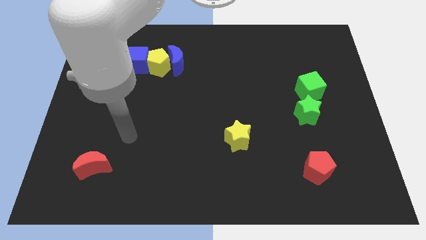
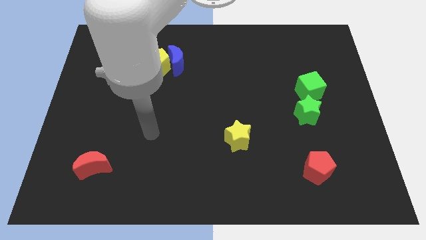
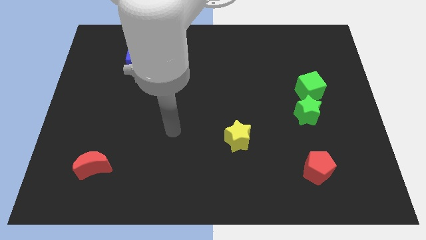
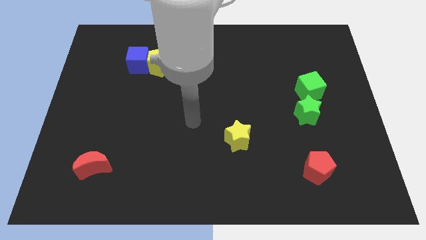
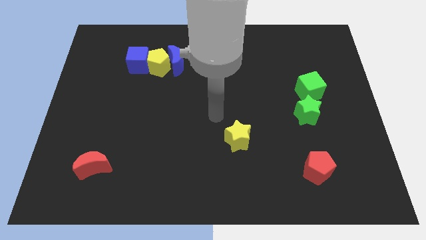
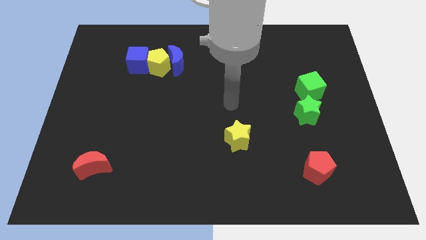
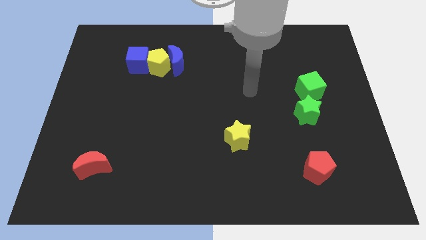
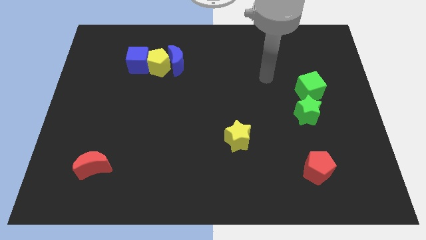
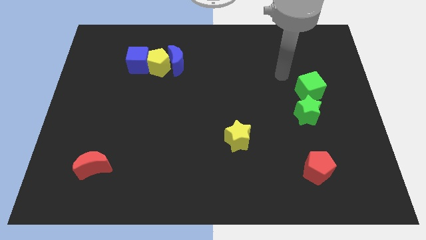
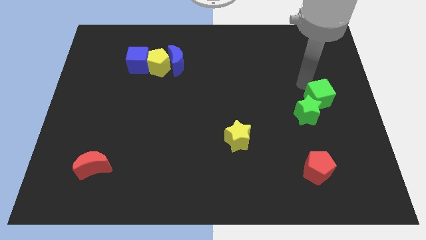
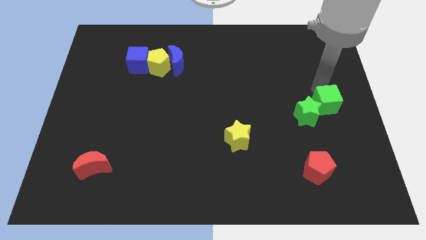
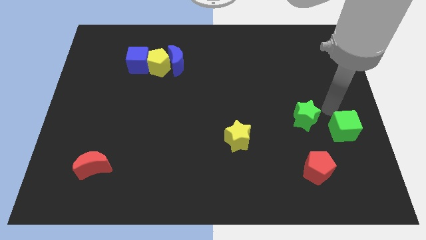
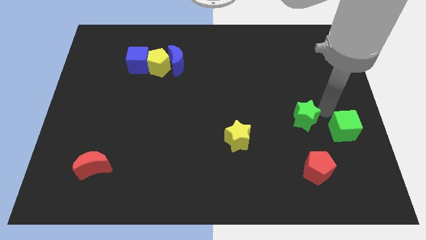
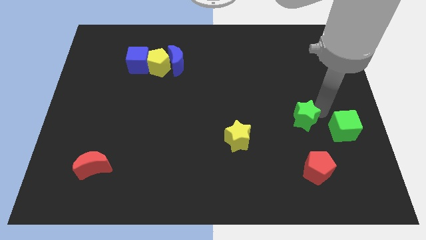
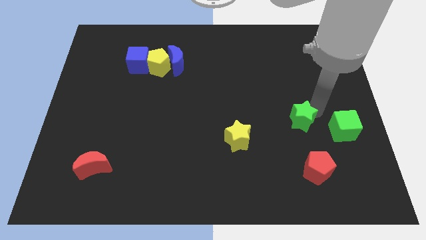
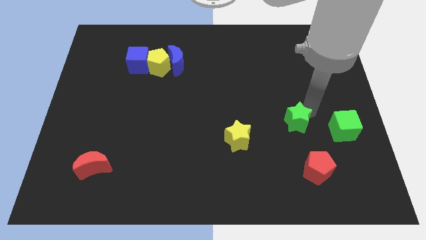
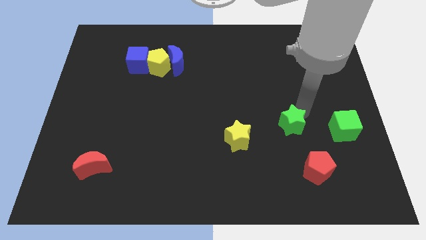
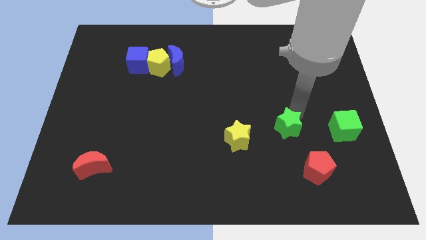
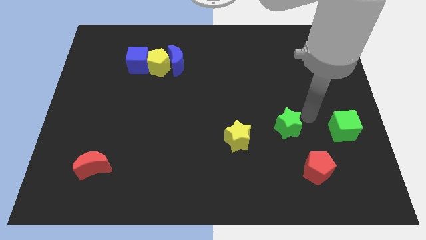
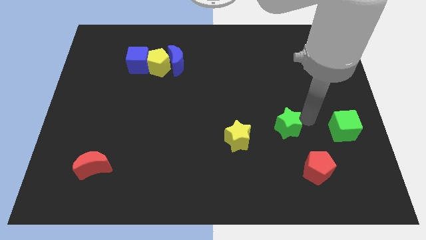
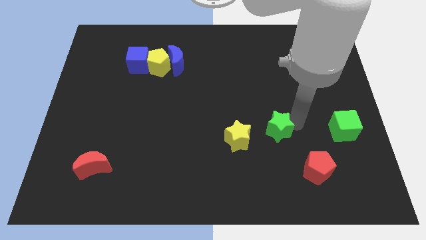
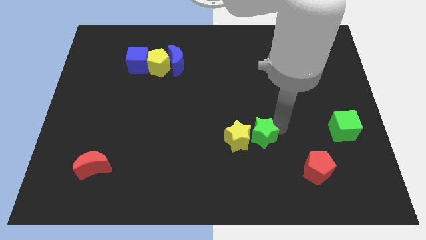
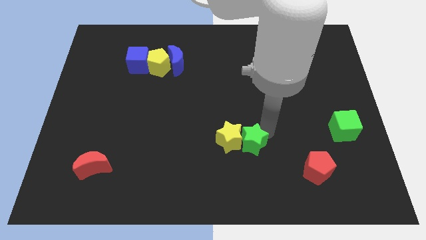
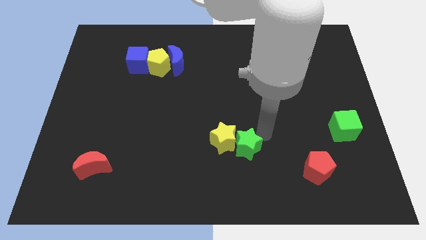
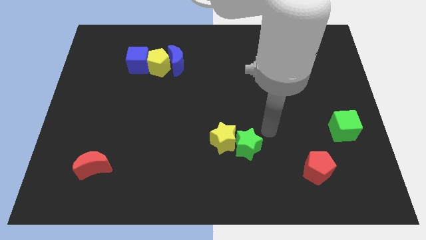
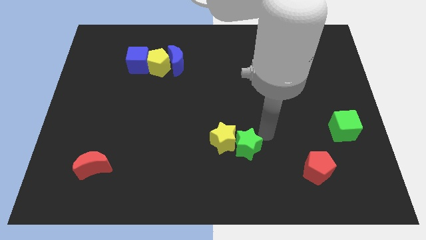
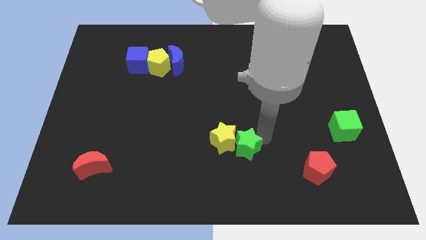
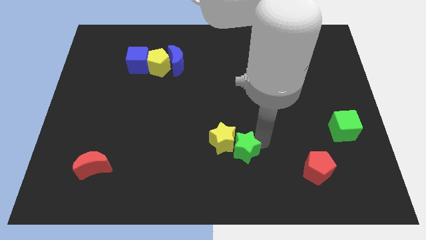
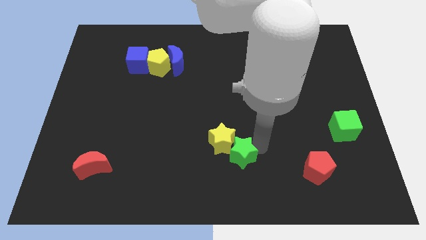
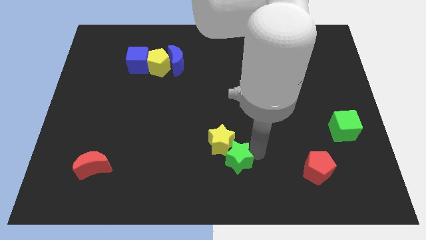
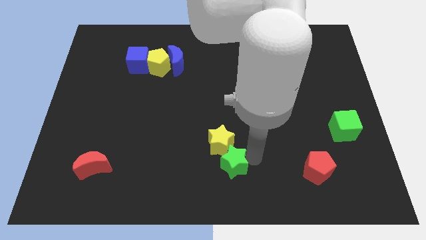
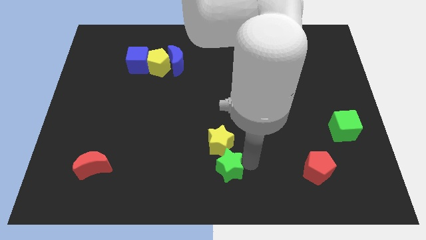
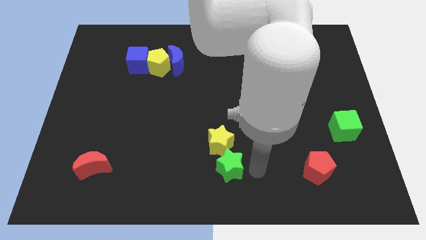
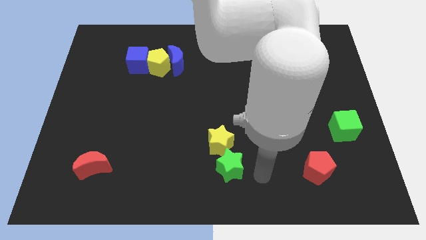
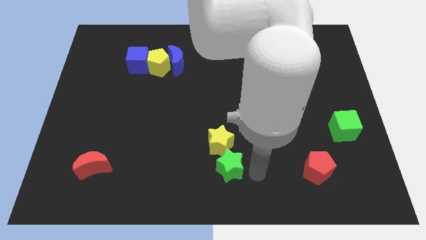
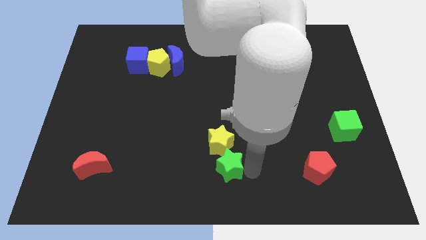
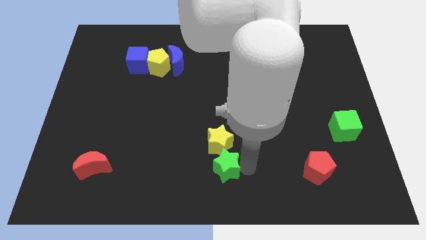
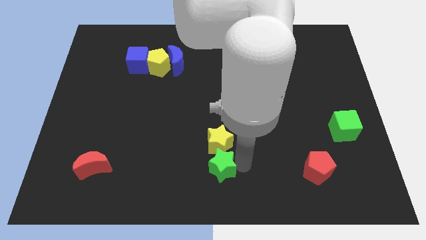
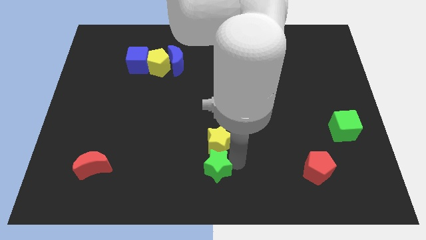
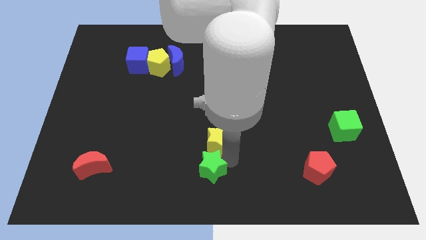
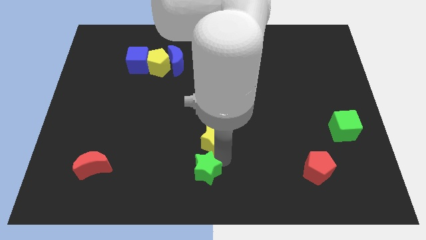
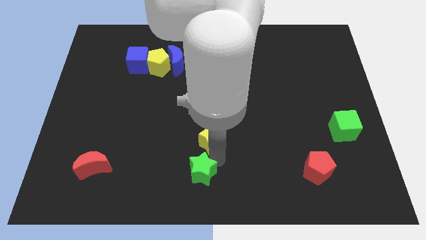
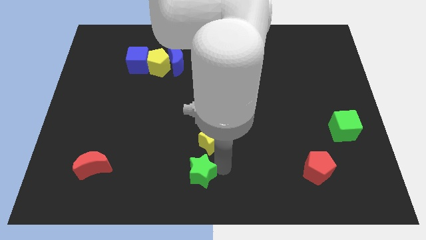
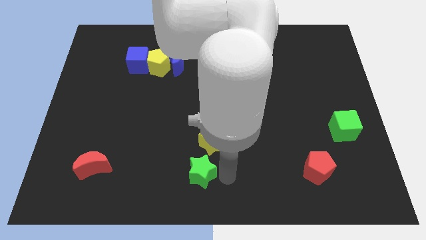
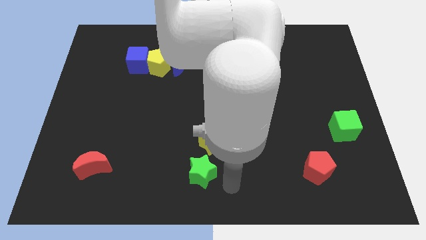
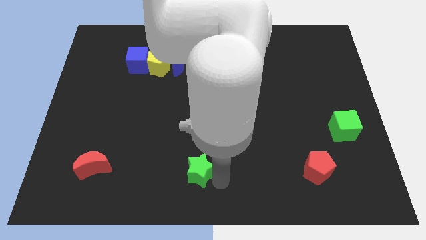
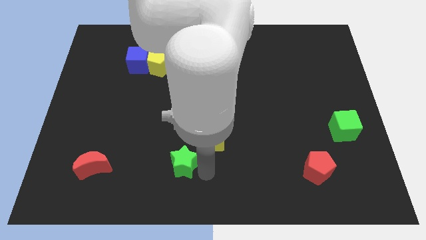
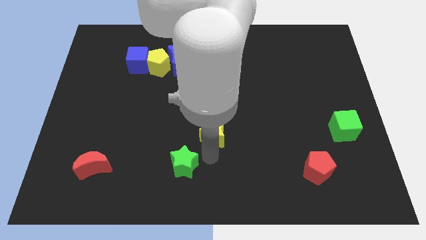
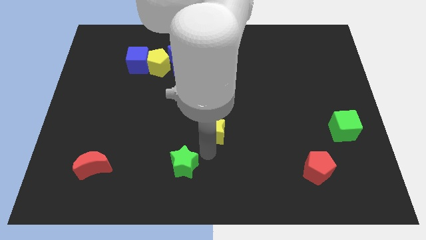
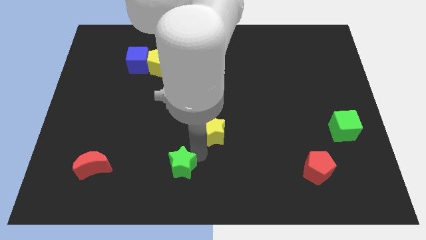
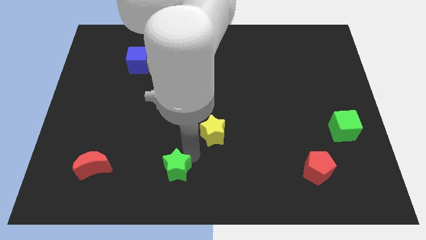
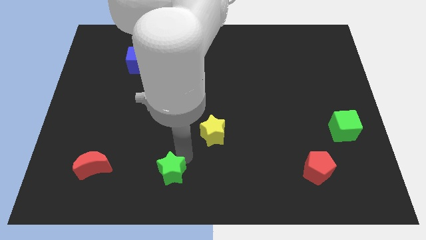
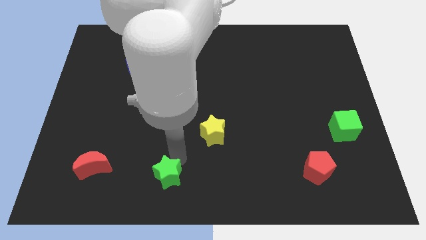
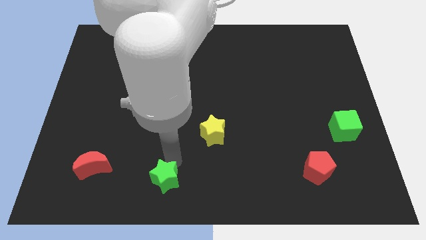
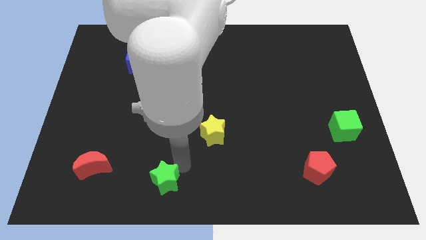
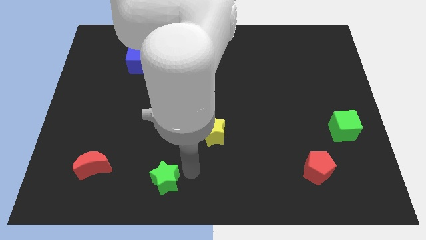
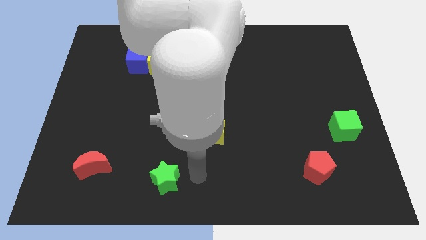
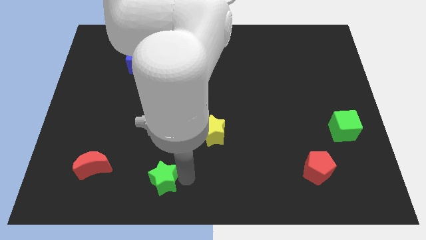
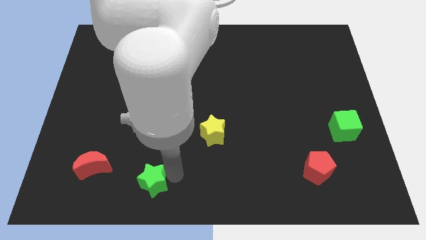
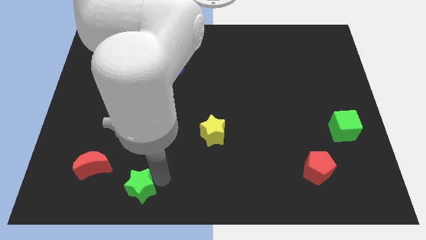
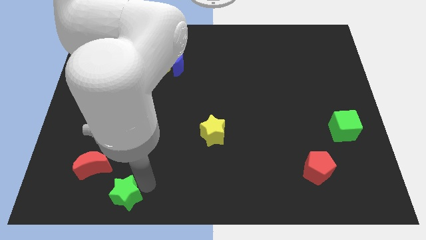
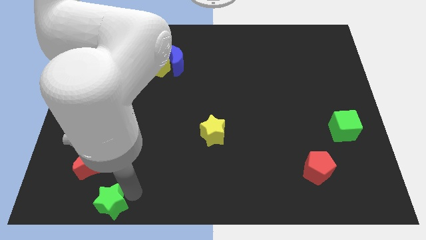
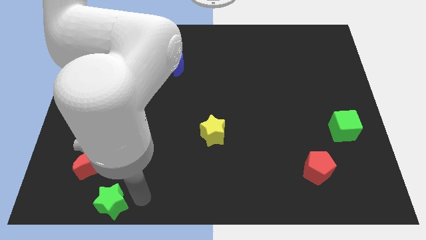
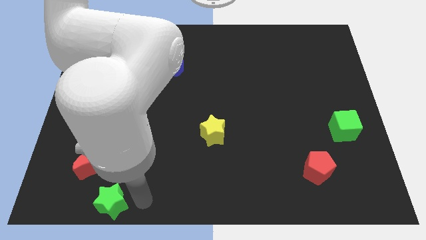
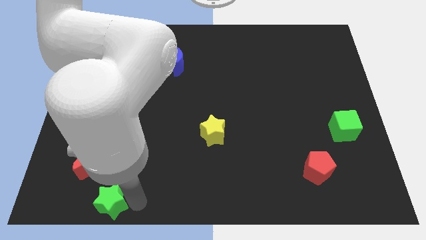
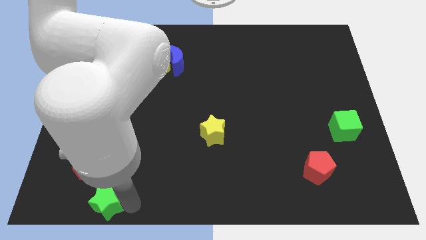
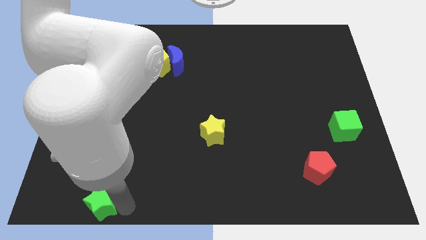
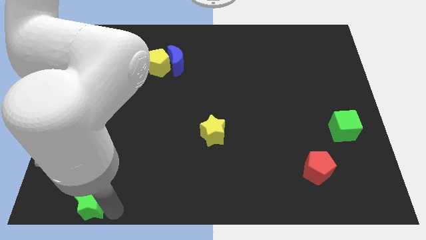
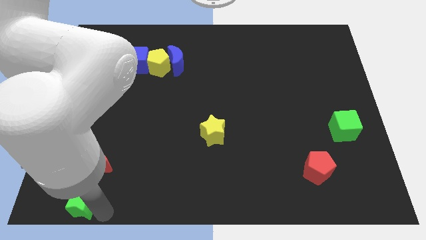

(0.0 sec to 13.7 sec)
put the green star to the bottom left of the board
